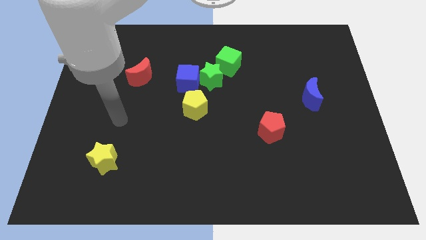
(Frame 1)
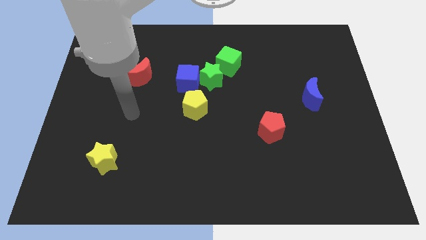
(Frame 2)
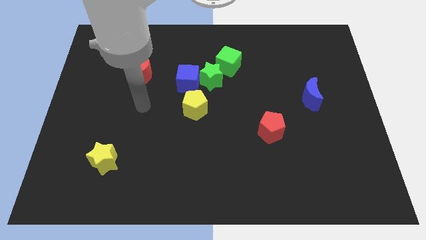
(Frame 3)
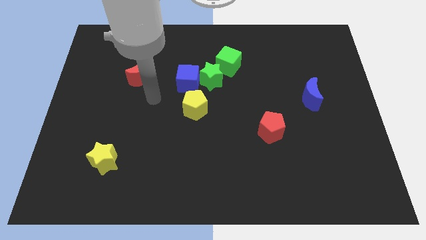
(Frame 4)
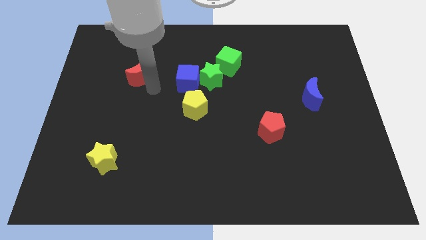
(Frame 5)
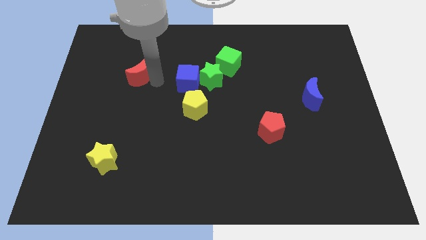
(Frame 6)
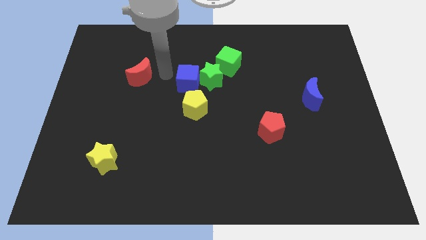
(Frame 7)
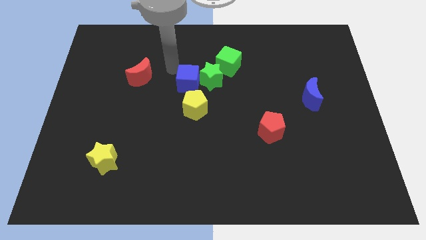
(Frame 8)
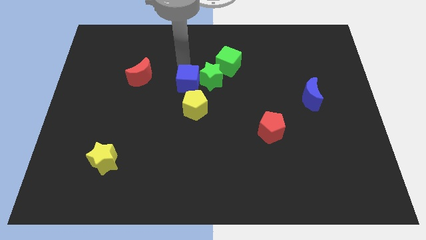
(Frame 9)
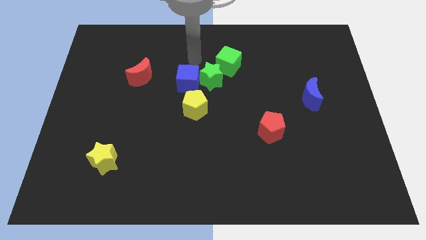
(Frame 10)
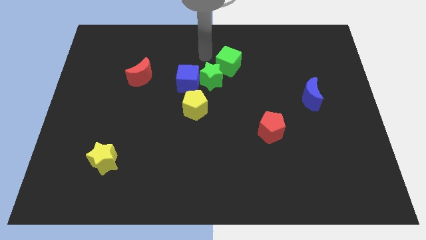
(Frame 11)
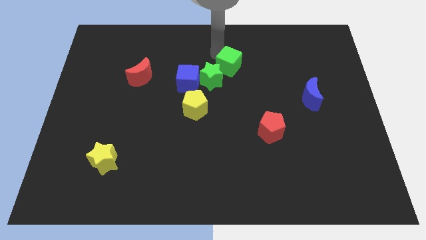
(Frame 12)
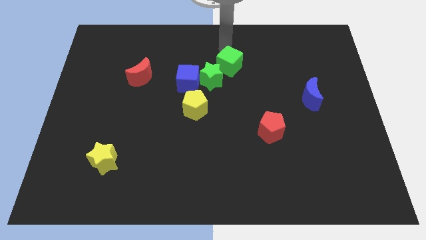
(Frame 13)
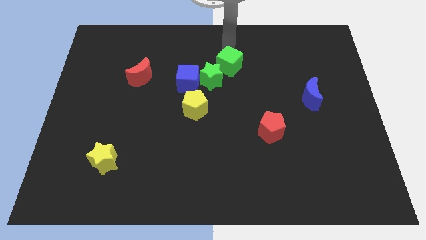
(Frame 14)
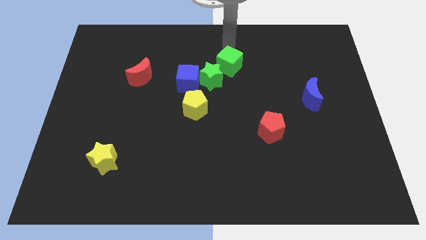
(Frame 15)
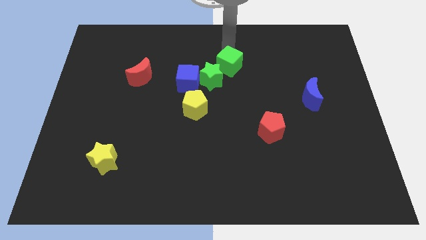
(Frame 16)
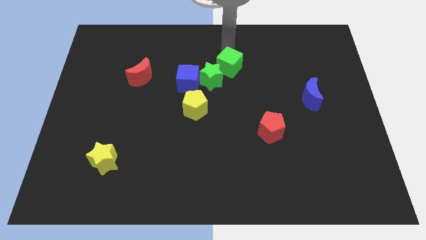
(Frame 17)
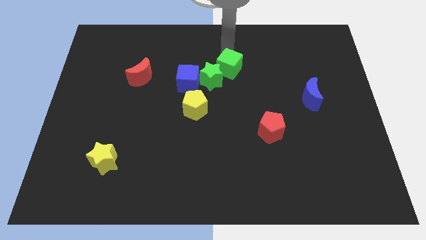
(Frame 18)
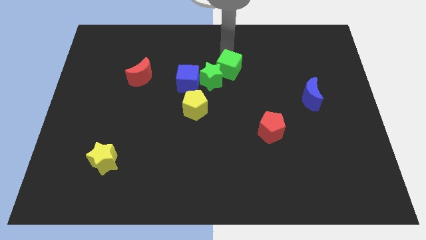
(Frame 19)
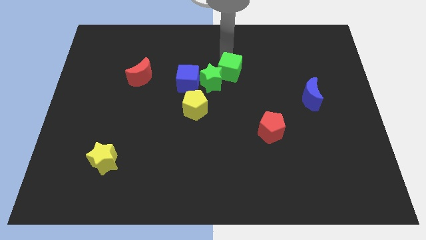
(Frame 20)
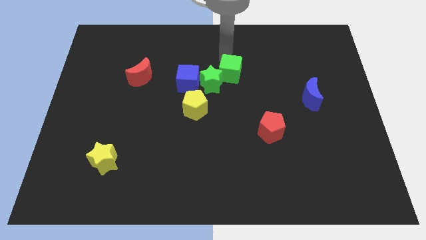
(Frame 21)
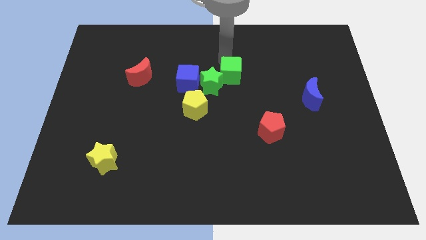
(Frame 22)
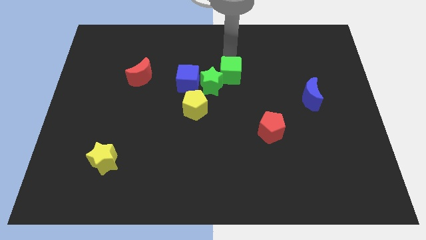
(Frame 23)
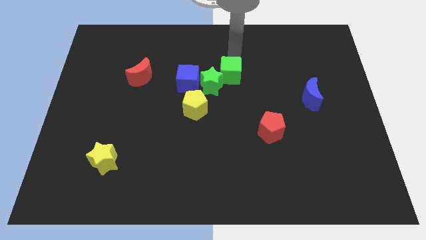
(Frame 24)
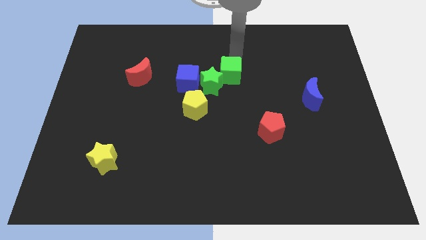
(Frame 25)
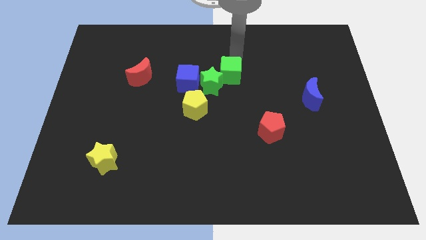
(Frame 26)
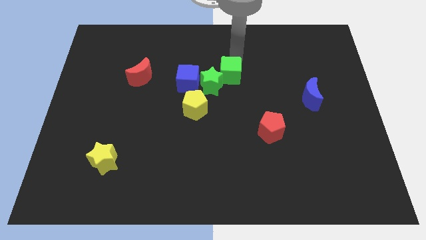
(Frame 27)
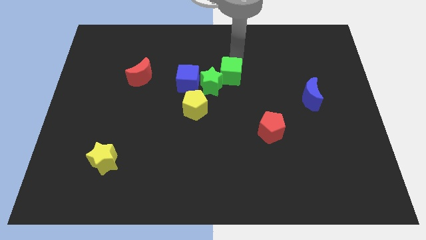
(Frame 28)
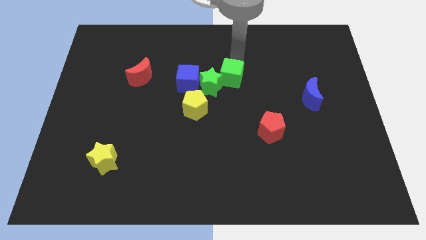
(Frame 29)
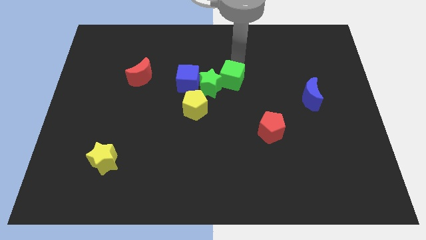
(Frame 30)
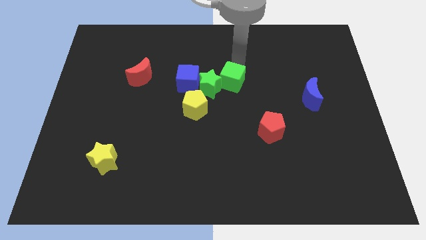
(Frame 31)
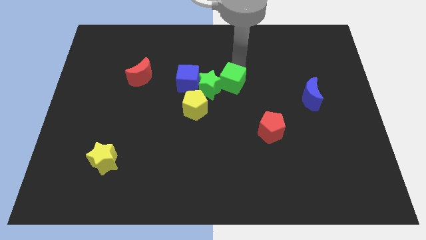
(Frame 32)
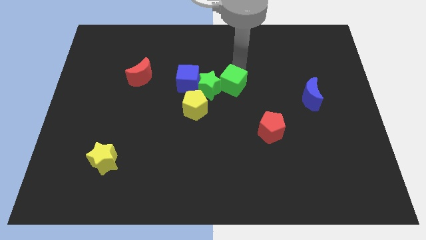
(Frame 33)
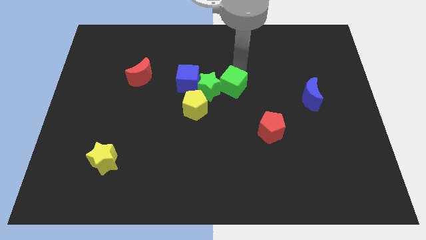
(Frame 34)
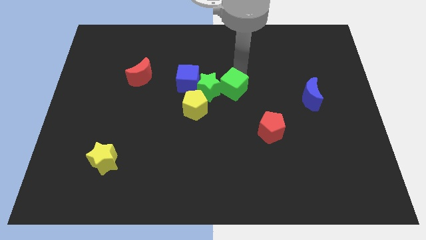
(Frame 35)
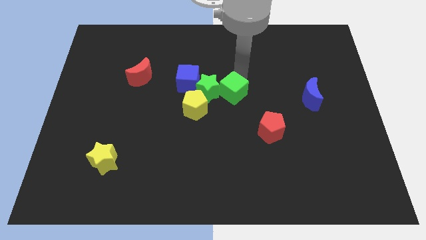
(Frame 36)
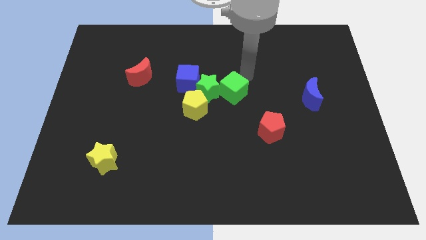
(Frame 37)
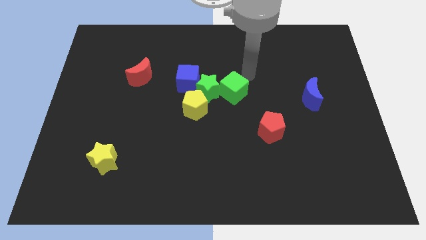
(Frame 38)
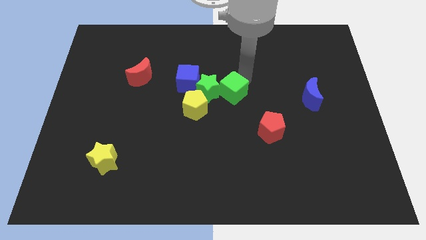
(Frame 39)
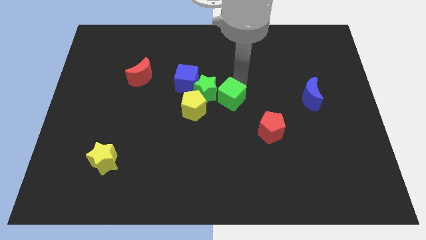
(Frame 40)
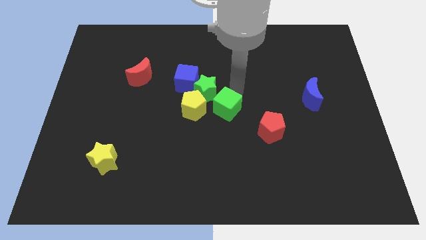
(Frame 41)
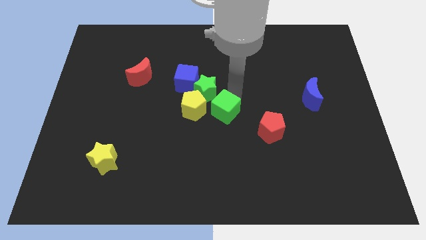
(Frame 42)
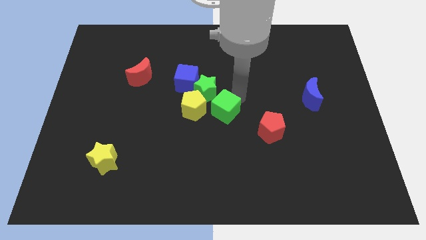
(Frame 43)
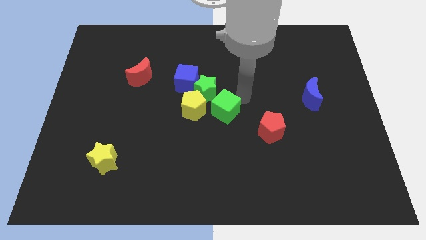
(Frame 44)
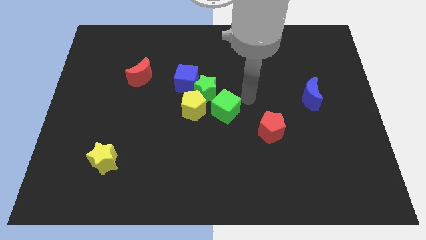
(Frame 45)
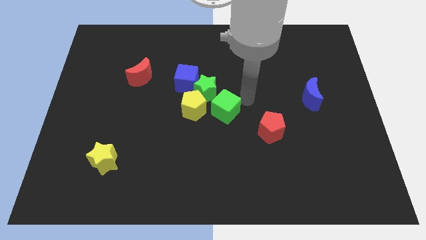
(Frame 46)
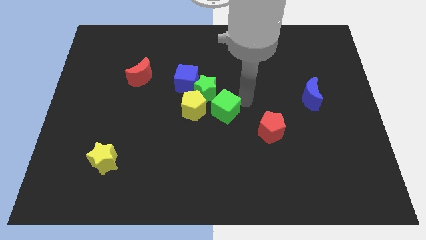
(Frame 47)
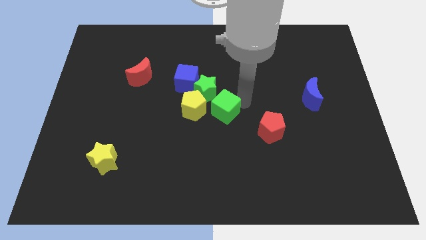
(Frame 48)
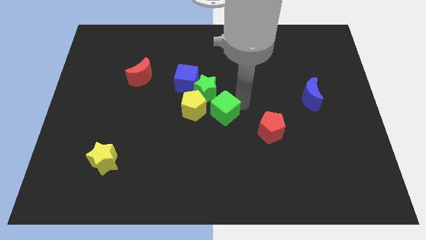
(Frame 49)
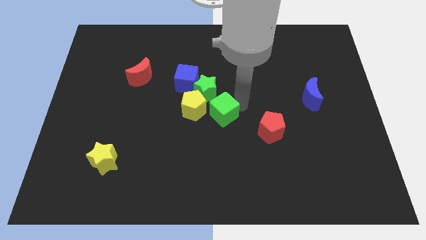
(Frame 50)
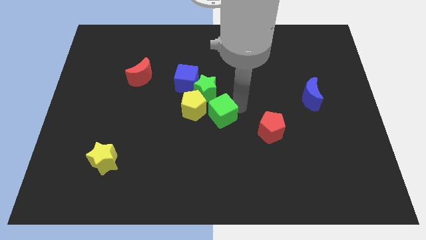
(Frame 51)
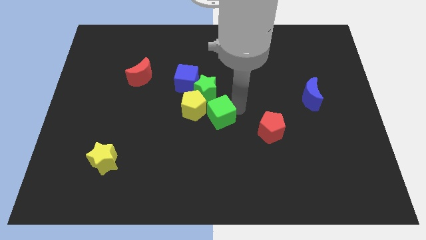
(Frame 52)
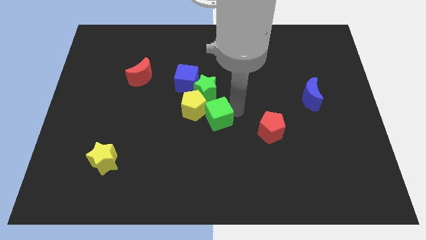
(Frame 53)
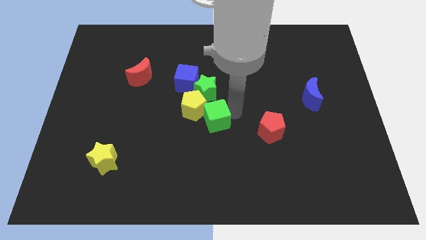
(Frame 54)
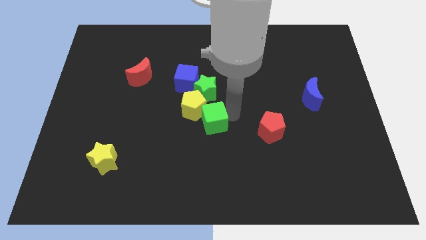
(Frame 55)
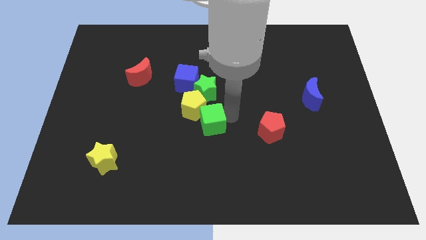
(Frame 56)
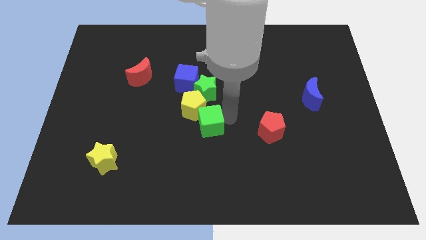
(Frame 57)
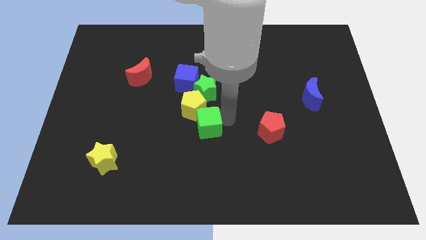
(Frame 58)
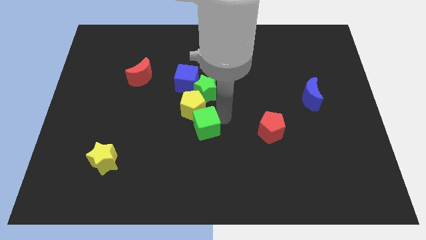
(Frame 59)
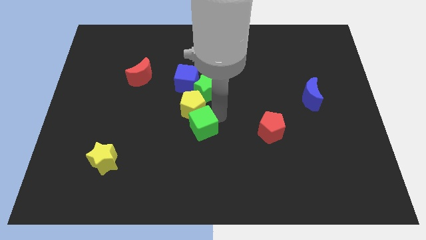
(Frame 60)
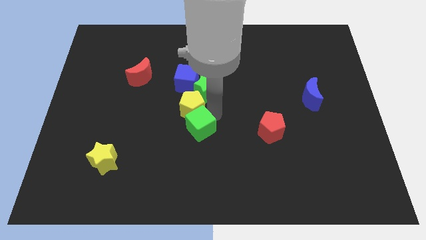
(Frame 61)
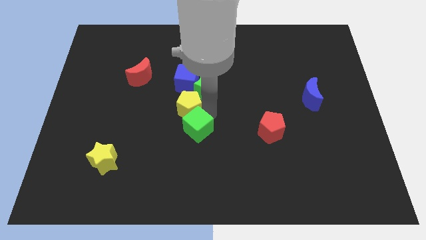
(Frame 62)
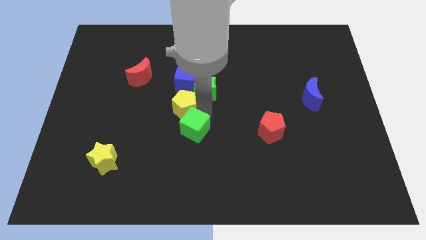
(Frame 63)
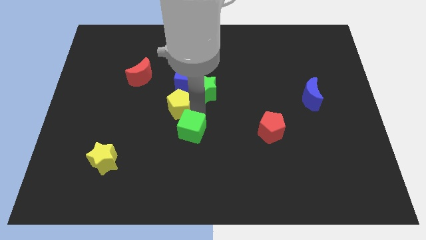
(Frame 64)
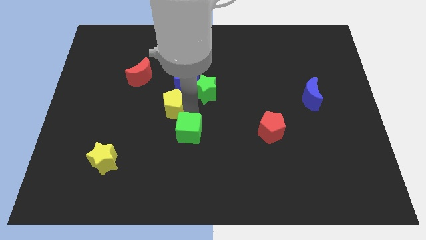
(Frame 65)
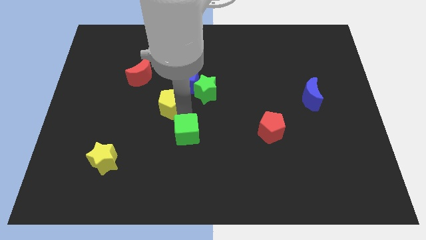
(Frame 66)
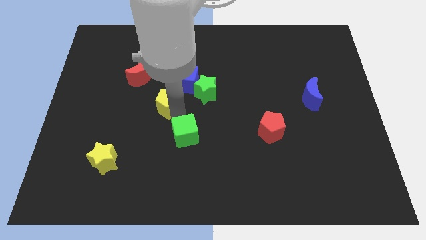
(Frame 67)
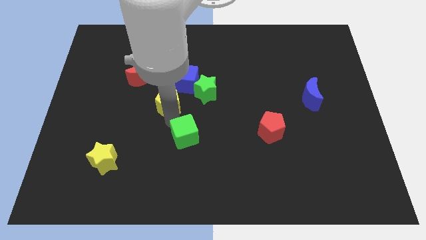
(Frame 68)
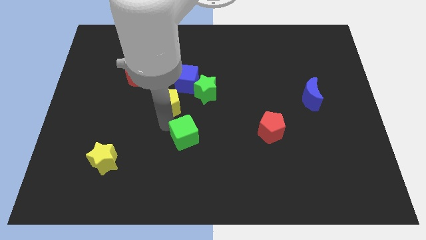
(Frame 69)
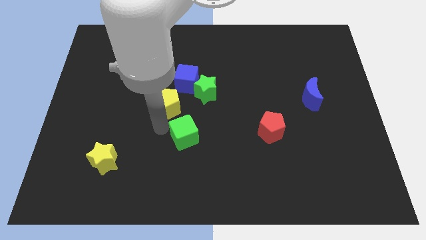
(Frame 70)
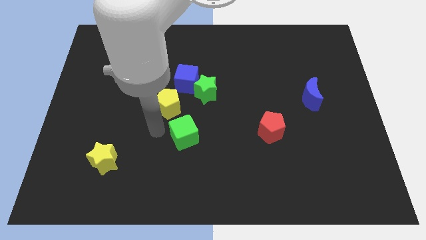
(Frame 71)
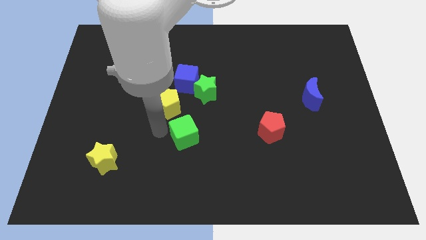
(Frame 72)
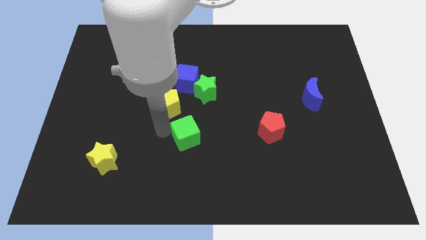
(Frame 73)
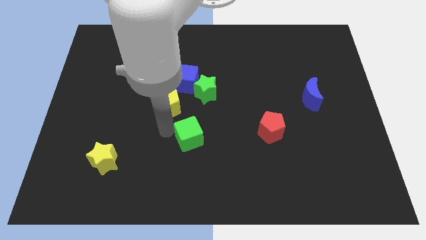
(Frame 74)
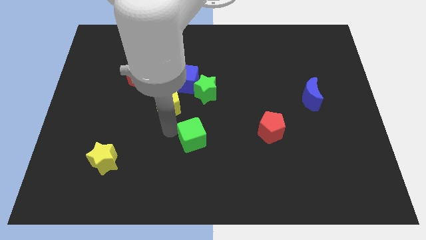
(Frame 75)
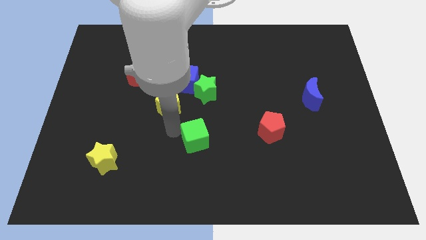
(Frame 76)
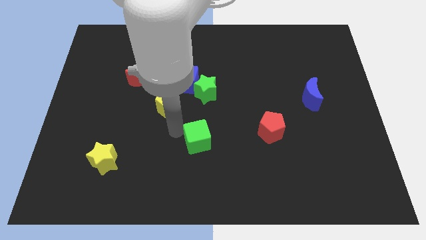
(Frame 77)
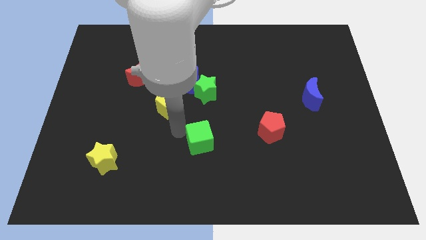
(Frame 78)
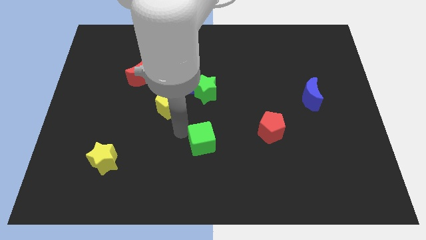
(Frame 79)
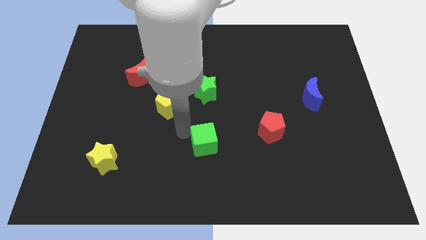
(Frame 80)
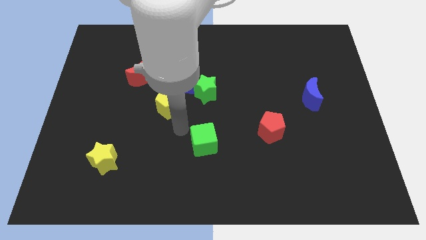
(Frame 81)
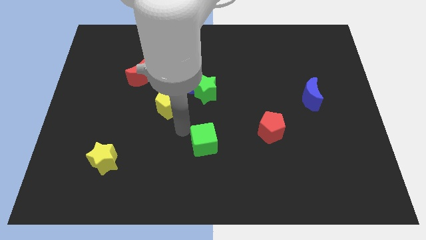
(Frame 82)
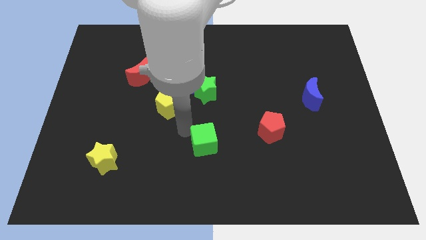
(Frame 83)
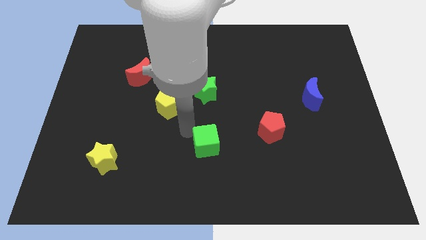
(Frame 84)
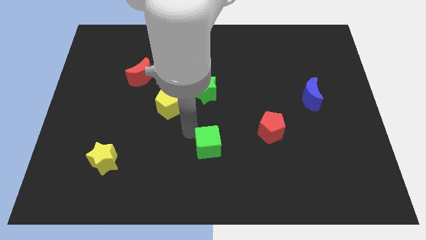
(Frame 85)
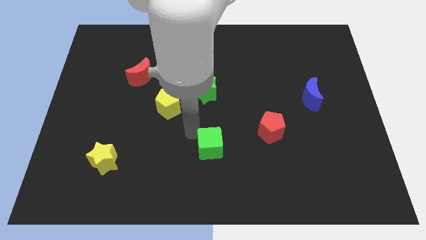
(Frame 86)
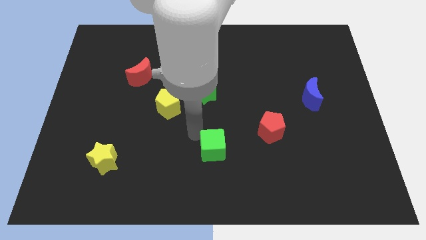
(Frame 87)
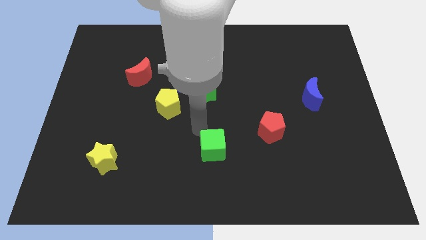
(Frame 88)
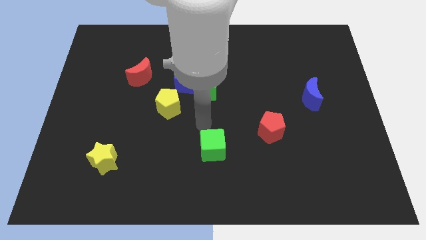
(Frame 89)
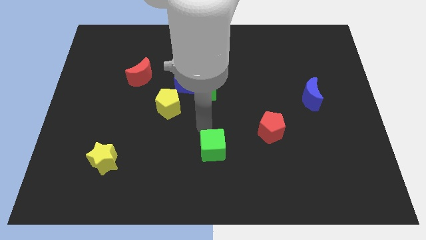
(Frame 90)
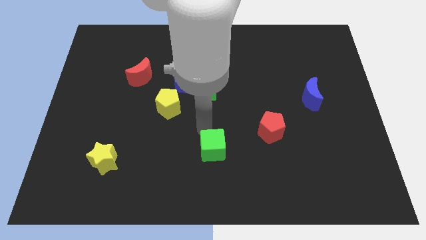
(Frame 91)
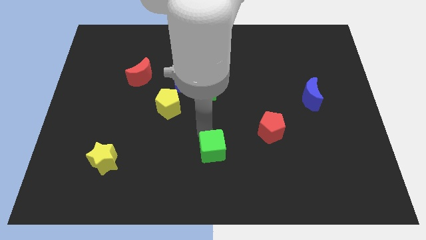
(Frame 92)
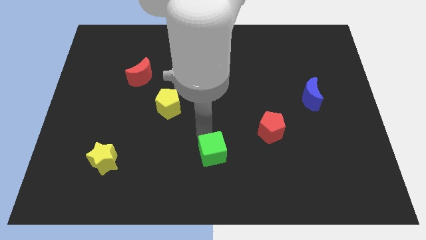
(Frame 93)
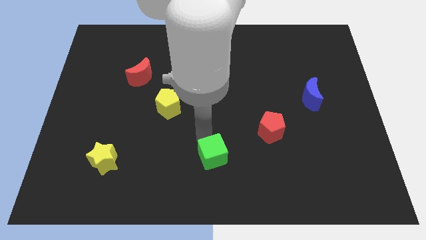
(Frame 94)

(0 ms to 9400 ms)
move the green cube to the bottom side
